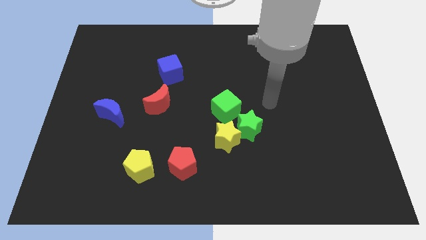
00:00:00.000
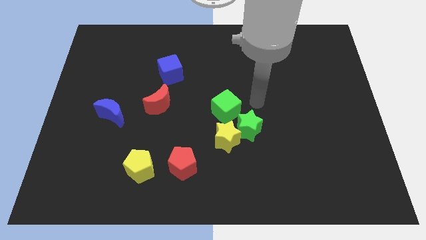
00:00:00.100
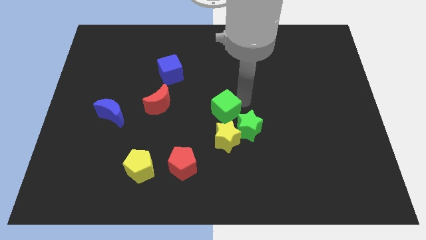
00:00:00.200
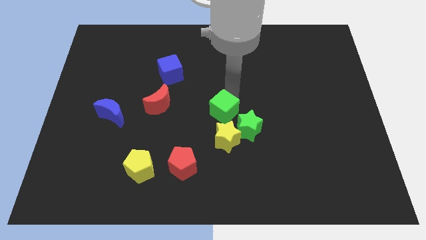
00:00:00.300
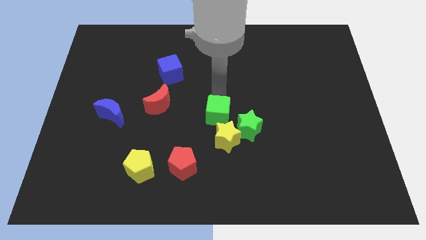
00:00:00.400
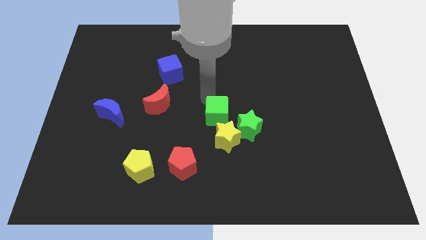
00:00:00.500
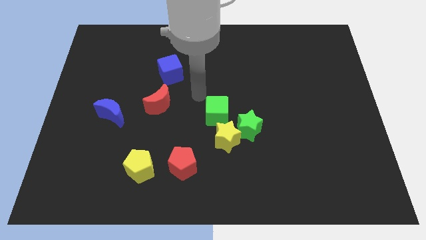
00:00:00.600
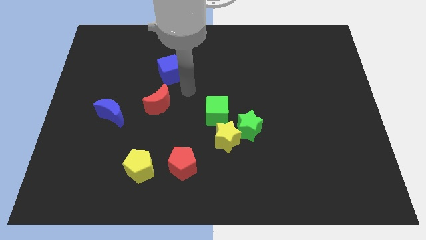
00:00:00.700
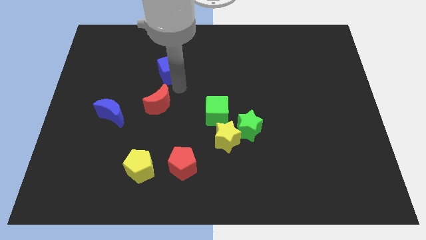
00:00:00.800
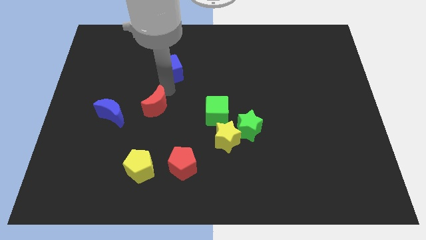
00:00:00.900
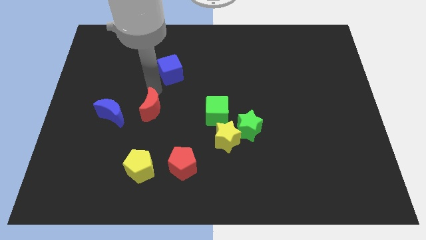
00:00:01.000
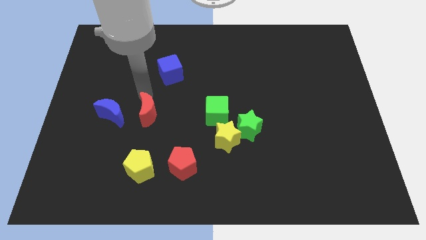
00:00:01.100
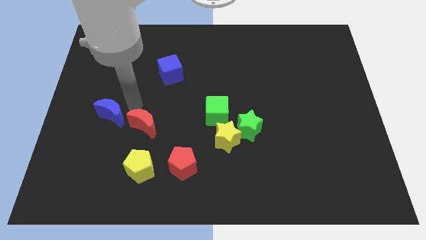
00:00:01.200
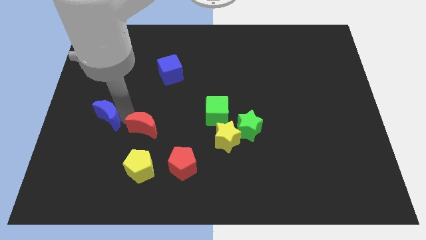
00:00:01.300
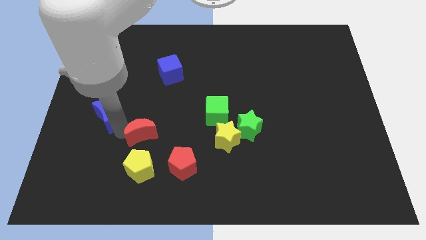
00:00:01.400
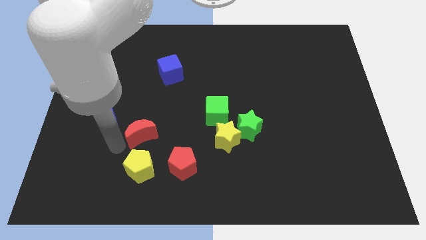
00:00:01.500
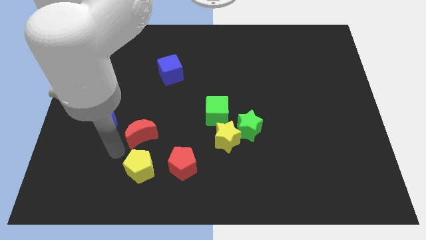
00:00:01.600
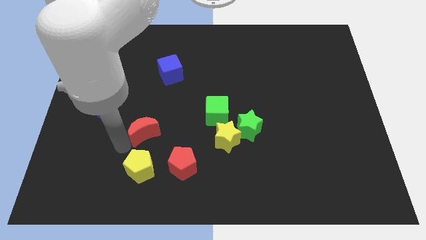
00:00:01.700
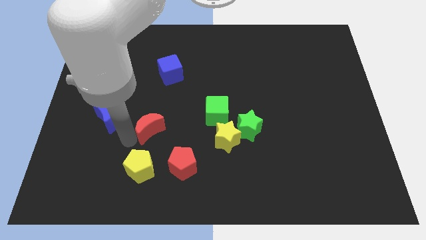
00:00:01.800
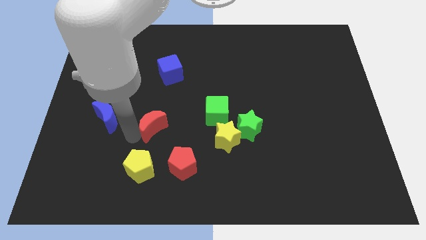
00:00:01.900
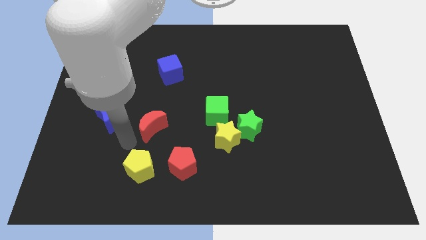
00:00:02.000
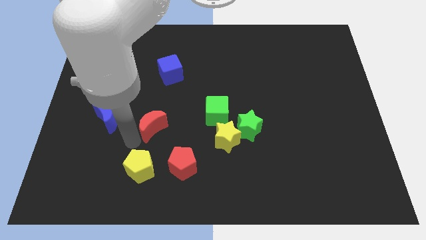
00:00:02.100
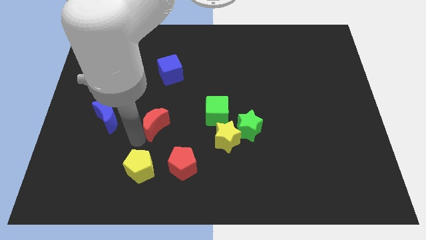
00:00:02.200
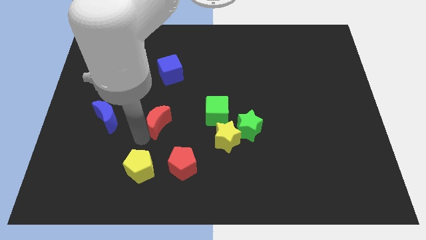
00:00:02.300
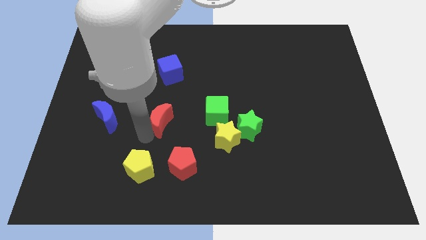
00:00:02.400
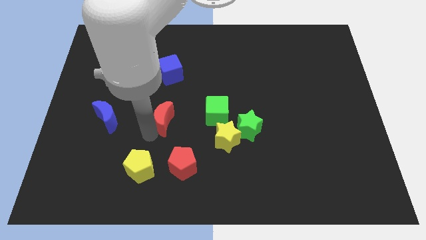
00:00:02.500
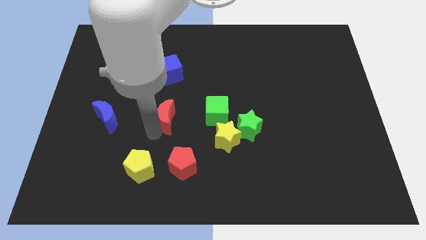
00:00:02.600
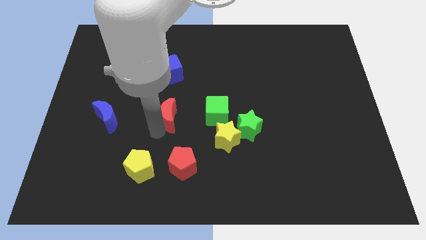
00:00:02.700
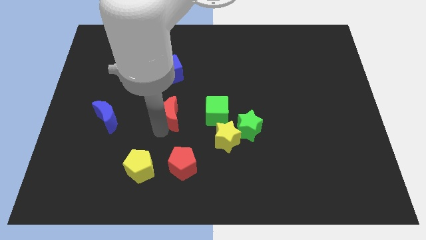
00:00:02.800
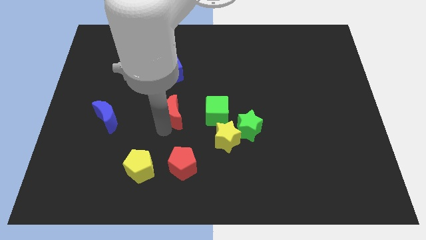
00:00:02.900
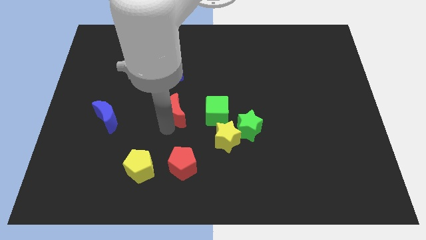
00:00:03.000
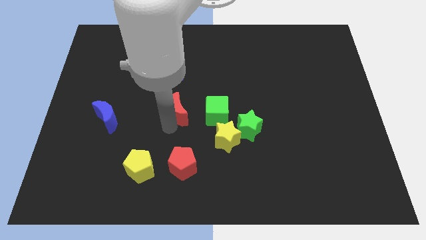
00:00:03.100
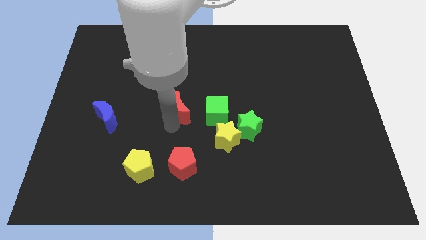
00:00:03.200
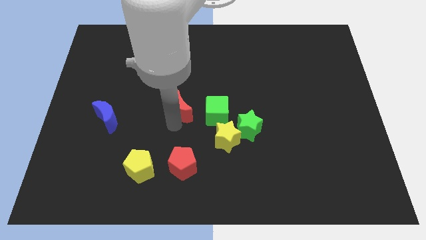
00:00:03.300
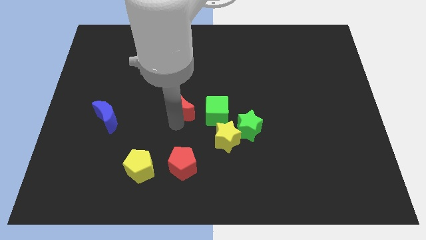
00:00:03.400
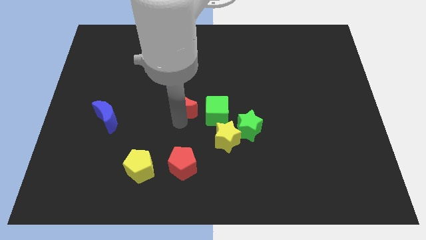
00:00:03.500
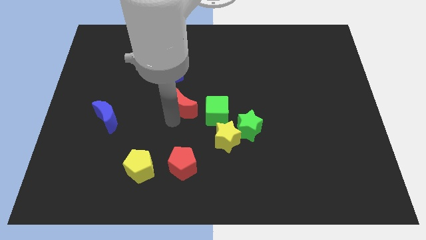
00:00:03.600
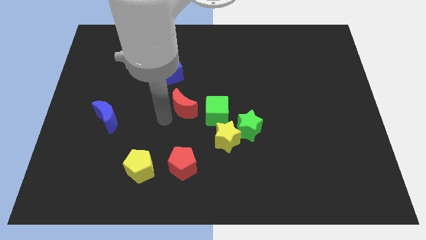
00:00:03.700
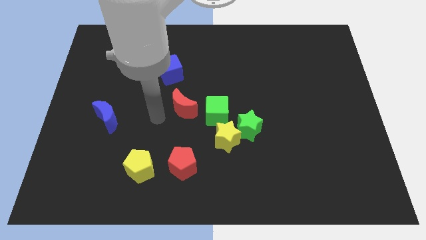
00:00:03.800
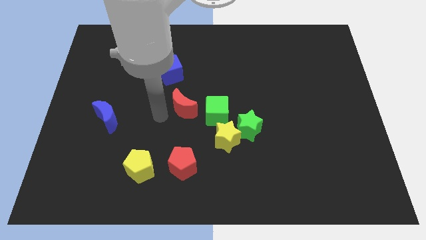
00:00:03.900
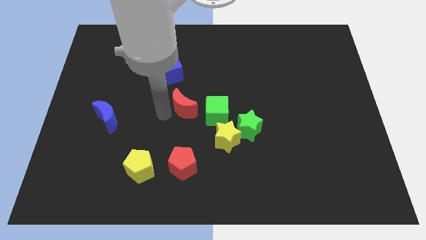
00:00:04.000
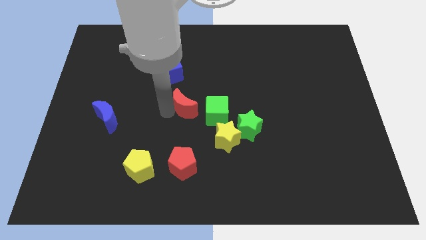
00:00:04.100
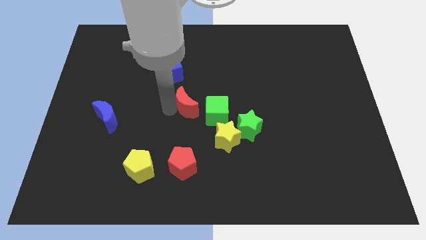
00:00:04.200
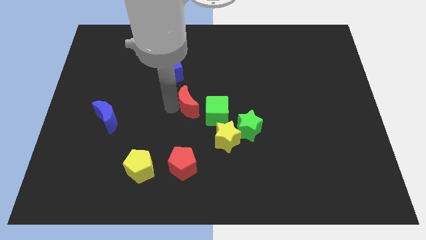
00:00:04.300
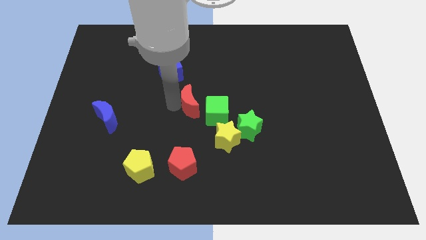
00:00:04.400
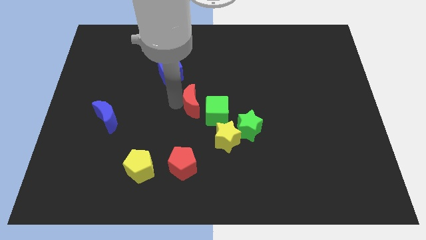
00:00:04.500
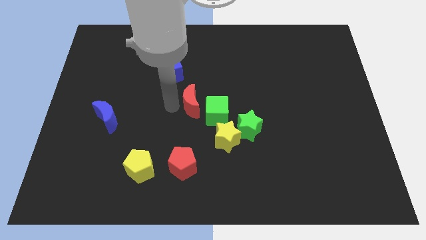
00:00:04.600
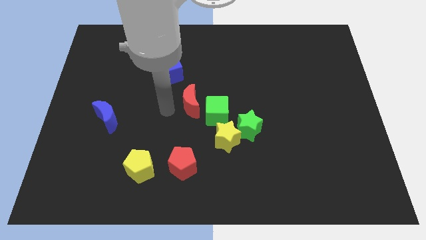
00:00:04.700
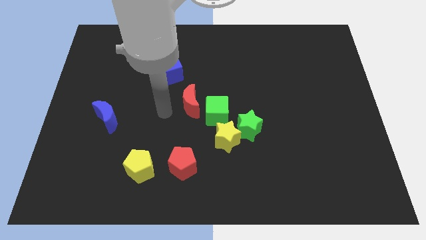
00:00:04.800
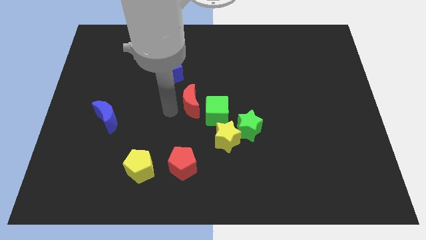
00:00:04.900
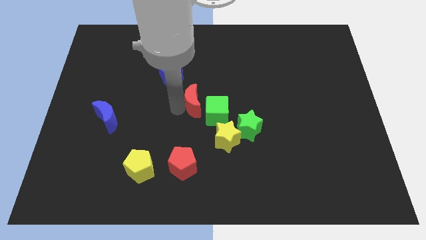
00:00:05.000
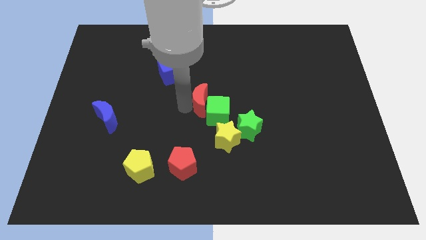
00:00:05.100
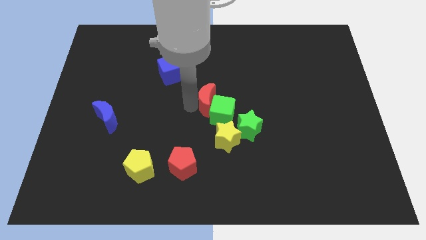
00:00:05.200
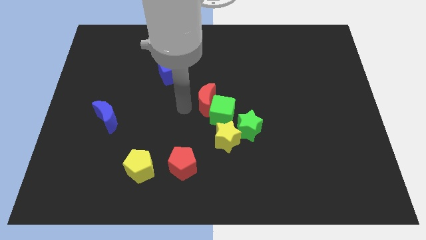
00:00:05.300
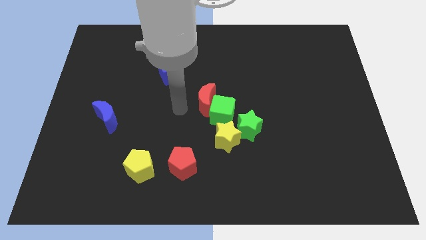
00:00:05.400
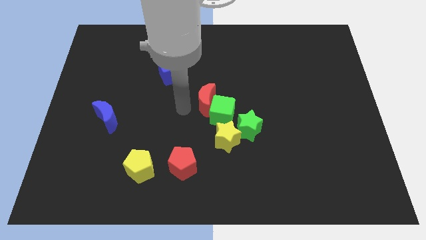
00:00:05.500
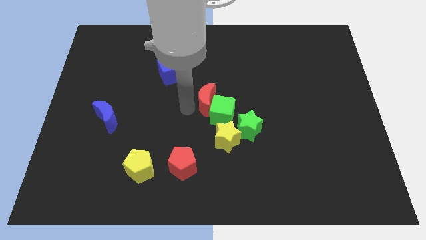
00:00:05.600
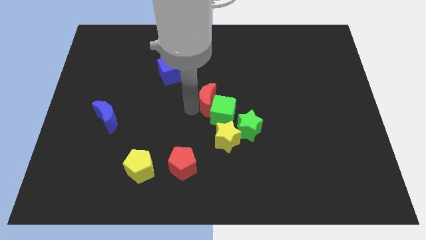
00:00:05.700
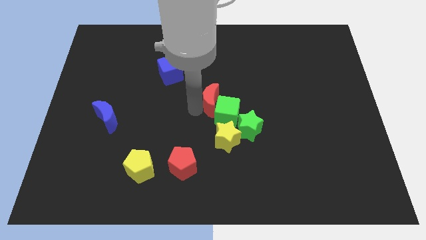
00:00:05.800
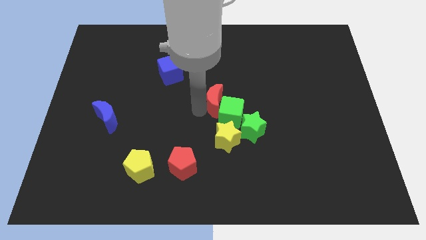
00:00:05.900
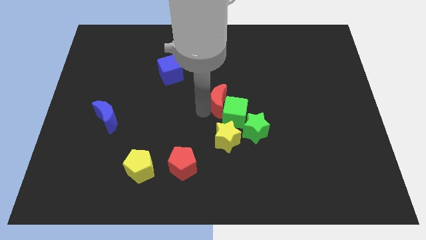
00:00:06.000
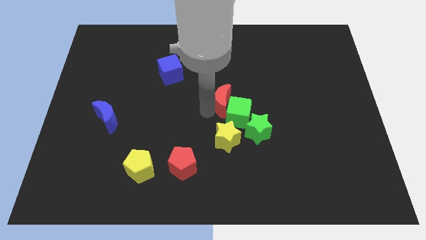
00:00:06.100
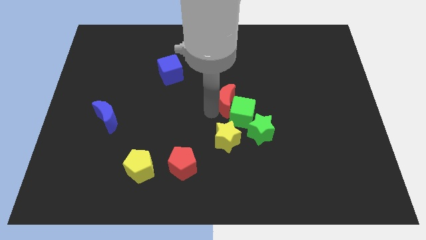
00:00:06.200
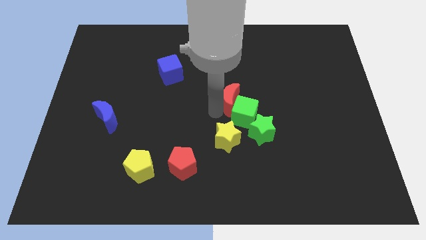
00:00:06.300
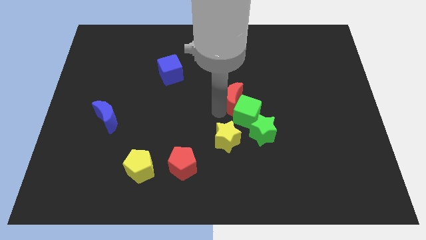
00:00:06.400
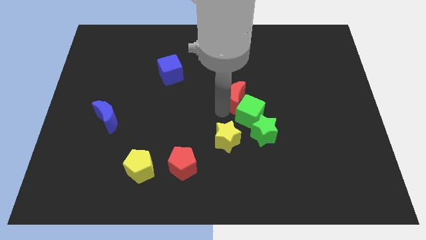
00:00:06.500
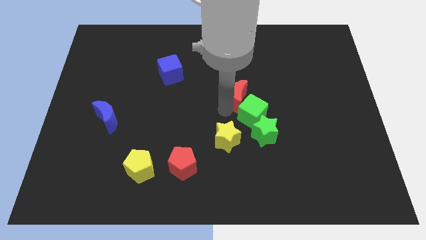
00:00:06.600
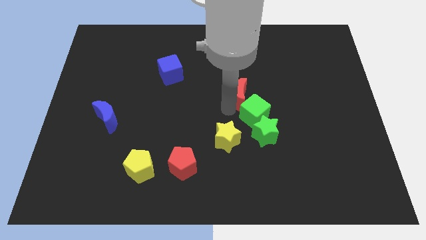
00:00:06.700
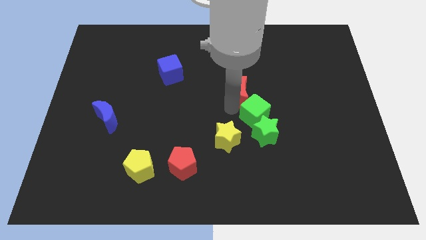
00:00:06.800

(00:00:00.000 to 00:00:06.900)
move the red moon to the top side of the green star
